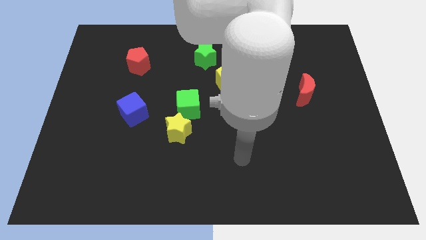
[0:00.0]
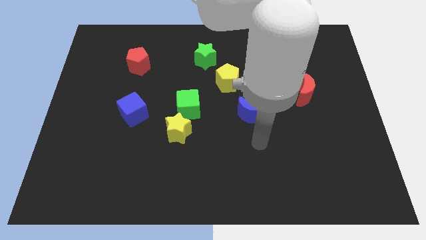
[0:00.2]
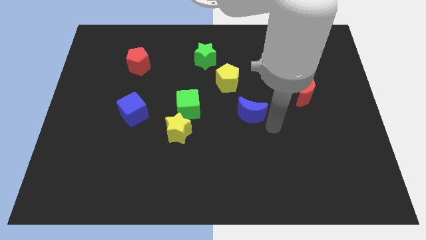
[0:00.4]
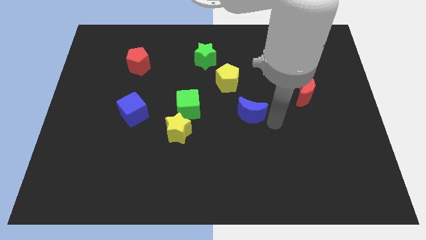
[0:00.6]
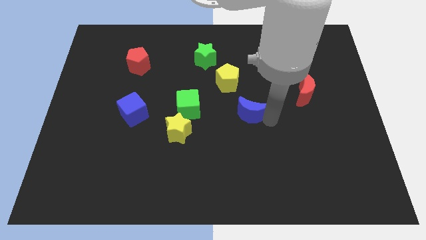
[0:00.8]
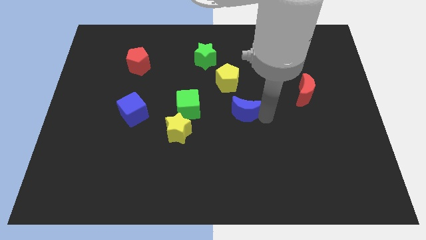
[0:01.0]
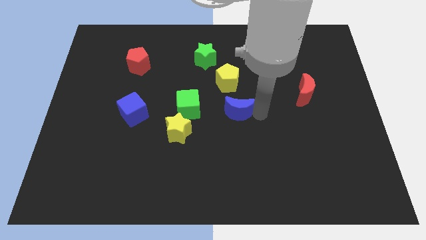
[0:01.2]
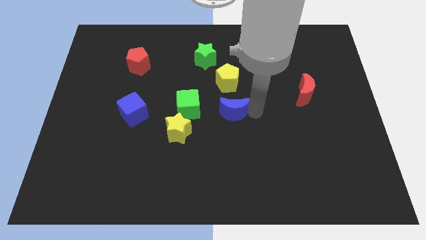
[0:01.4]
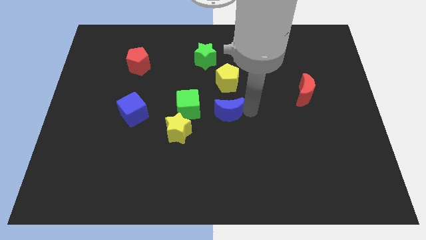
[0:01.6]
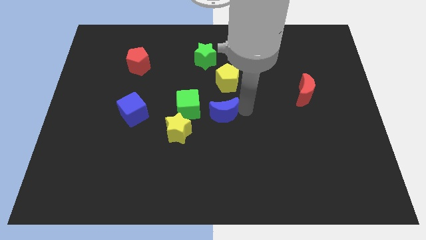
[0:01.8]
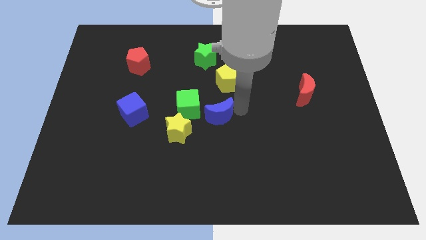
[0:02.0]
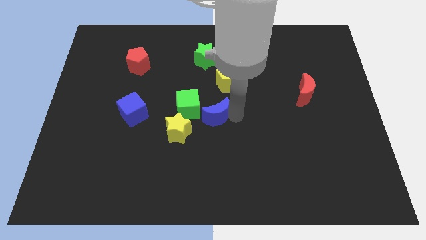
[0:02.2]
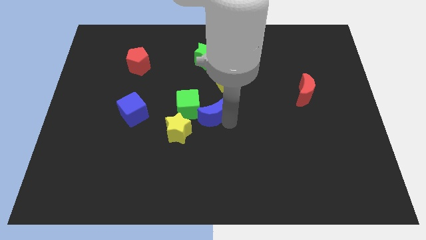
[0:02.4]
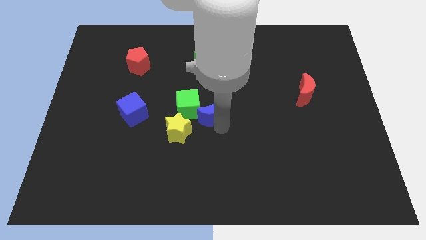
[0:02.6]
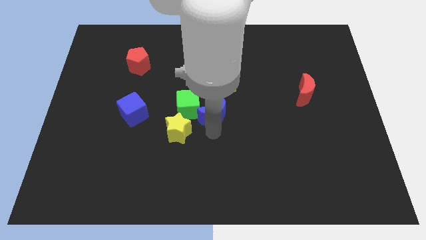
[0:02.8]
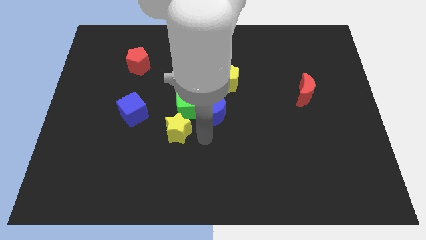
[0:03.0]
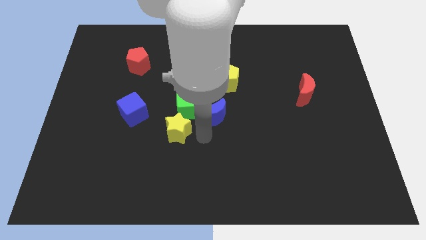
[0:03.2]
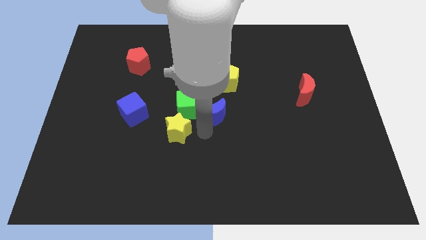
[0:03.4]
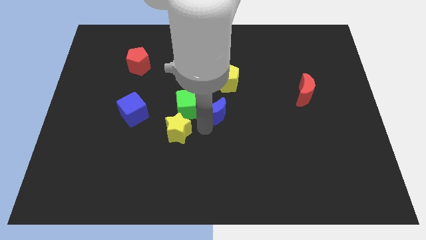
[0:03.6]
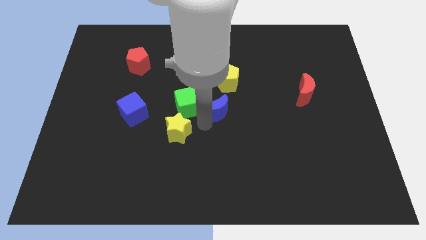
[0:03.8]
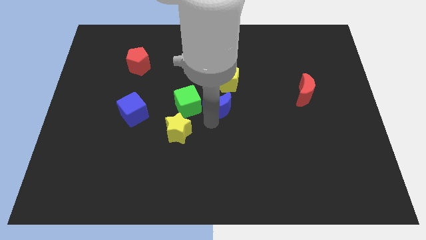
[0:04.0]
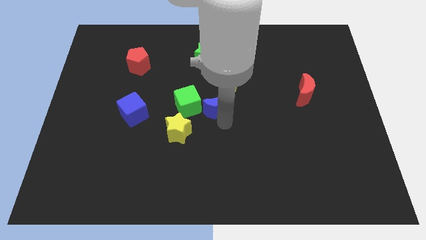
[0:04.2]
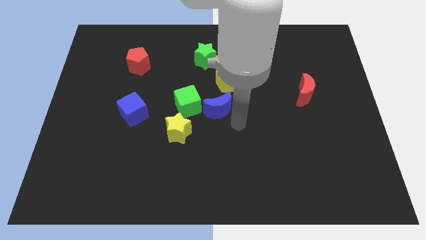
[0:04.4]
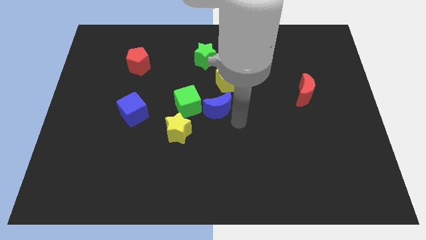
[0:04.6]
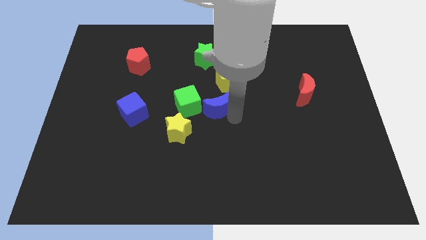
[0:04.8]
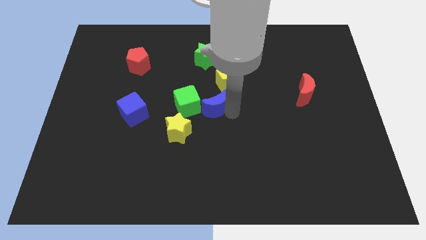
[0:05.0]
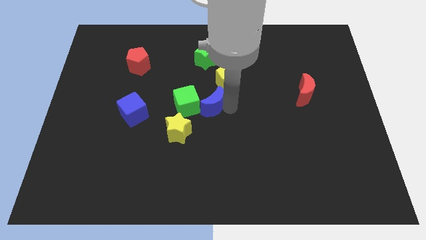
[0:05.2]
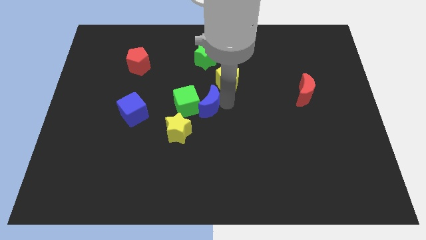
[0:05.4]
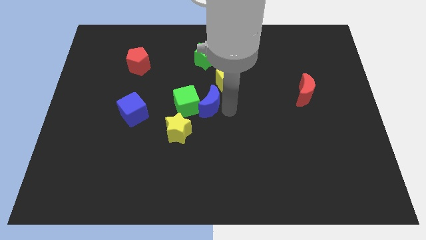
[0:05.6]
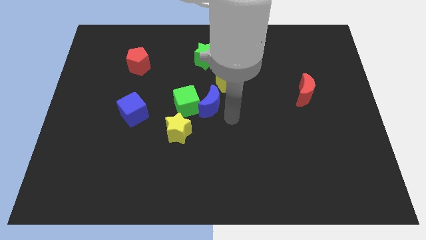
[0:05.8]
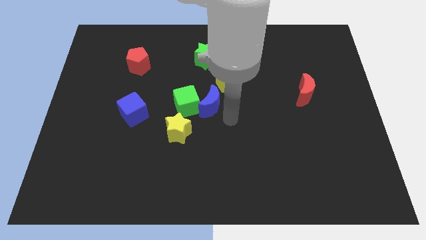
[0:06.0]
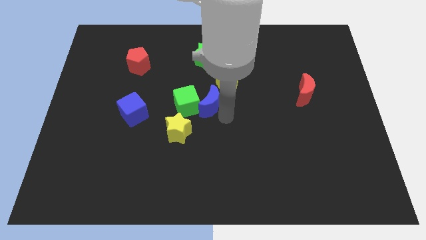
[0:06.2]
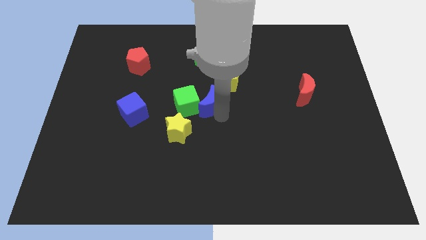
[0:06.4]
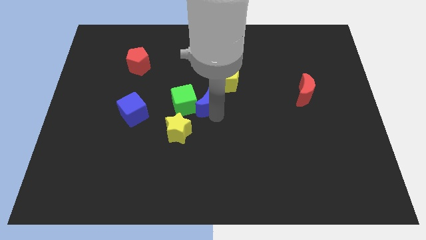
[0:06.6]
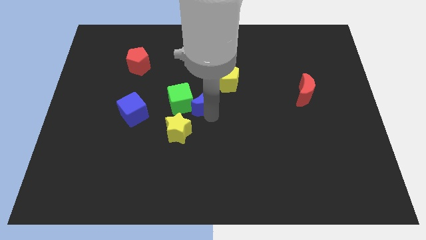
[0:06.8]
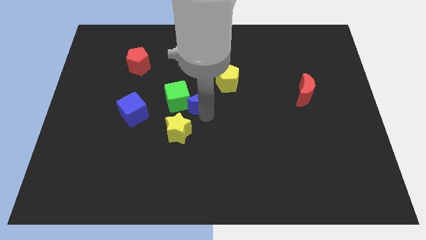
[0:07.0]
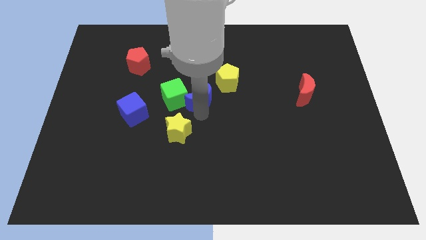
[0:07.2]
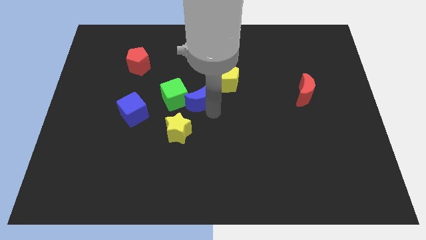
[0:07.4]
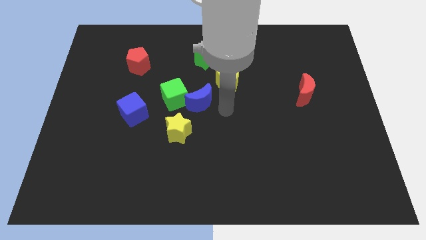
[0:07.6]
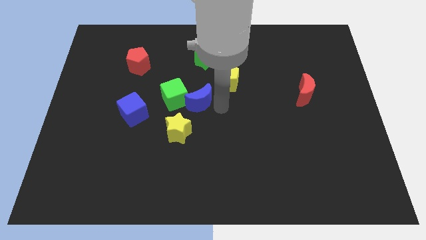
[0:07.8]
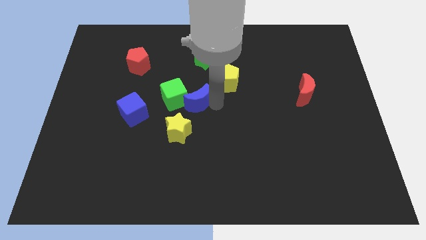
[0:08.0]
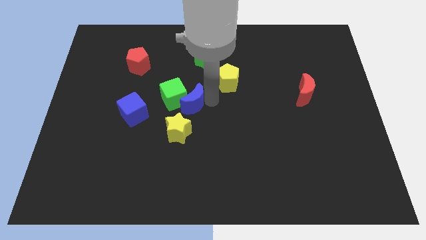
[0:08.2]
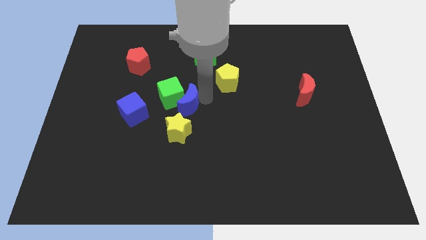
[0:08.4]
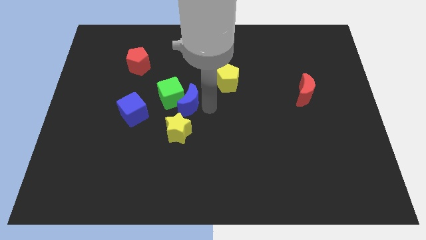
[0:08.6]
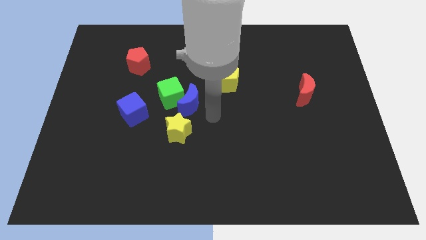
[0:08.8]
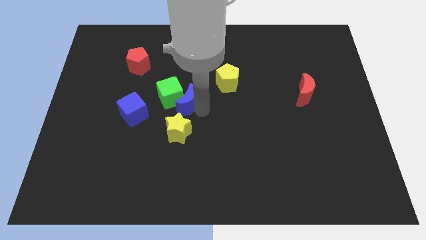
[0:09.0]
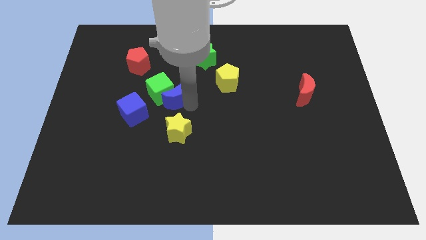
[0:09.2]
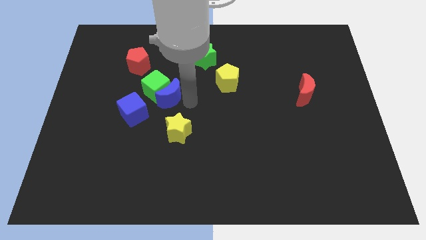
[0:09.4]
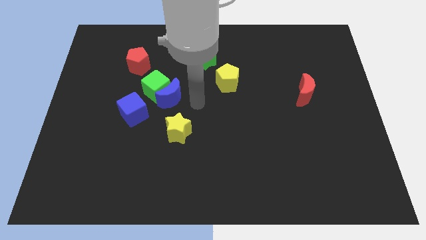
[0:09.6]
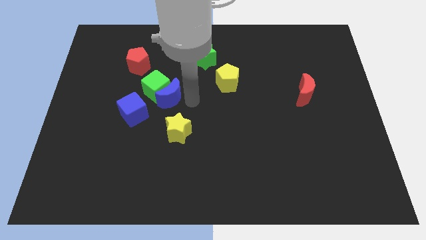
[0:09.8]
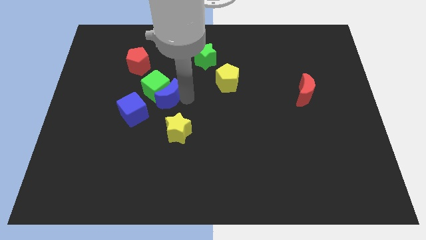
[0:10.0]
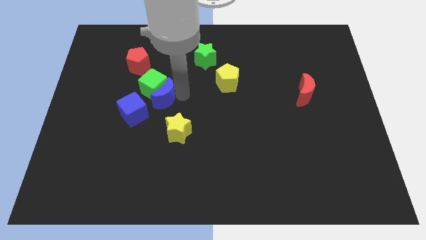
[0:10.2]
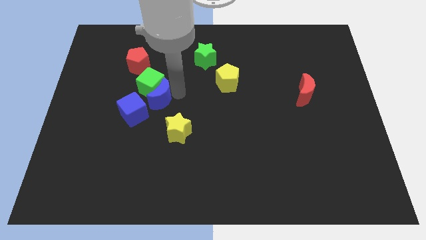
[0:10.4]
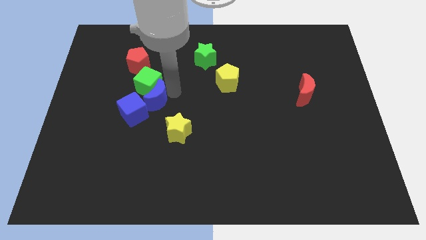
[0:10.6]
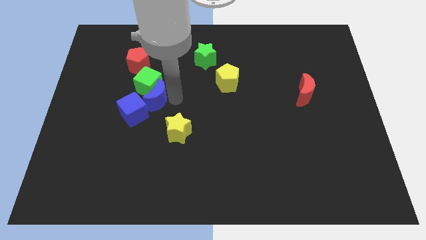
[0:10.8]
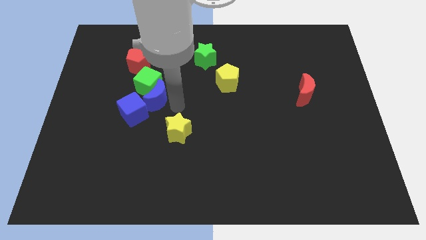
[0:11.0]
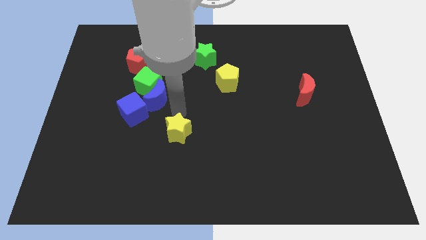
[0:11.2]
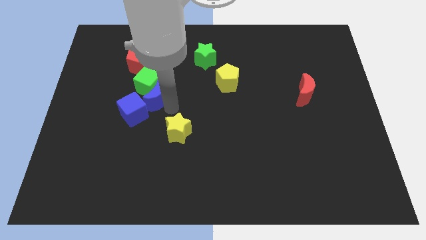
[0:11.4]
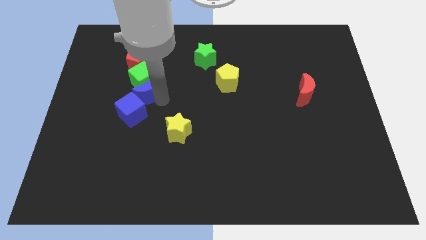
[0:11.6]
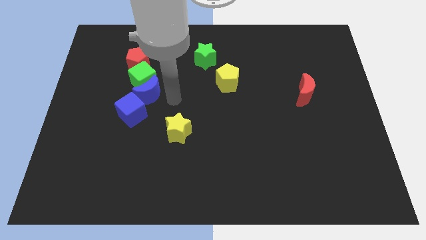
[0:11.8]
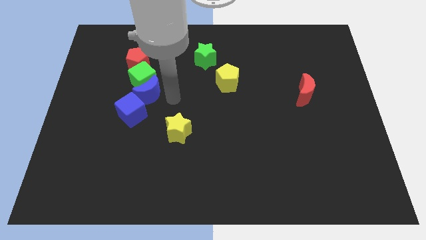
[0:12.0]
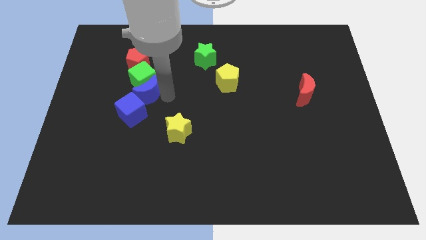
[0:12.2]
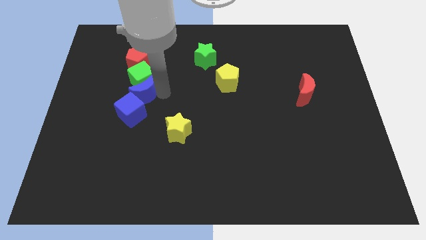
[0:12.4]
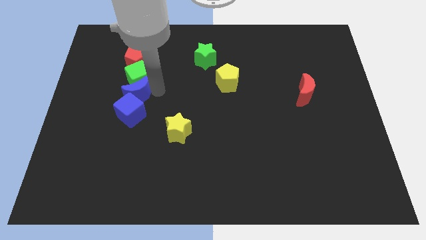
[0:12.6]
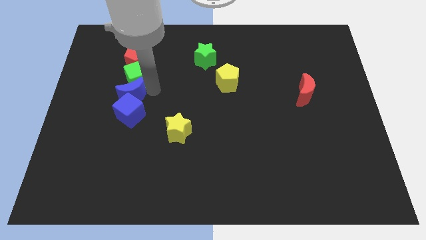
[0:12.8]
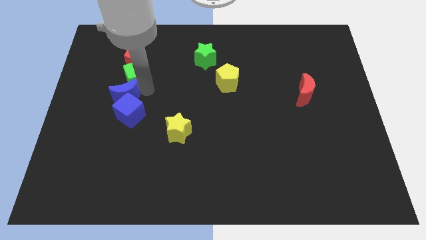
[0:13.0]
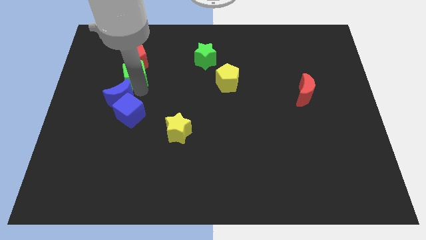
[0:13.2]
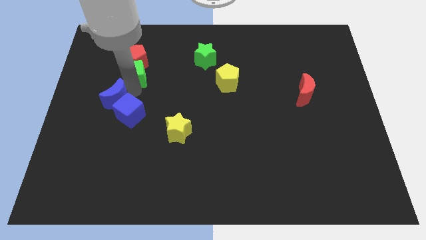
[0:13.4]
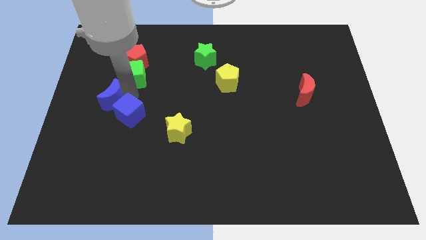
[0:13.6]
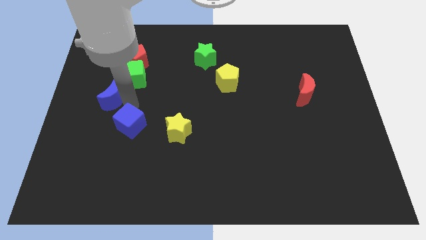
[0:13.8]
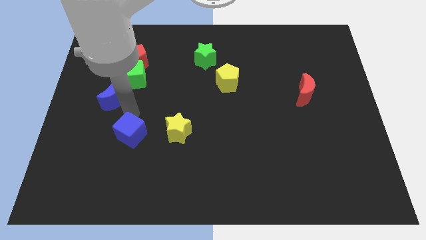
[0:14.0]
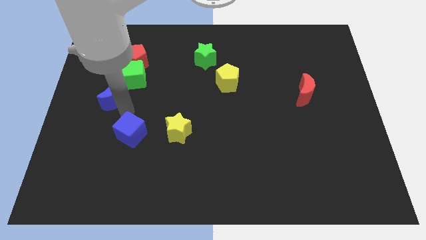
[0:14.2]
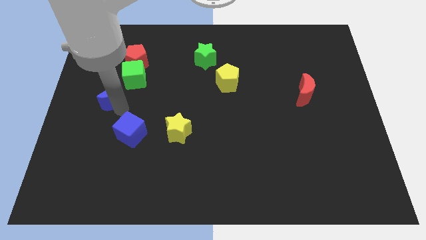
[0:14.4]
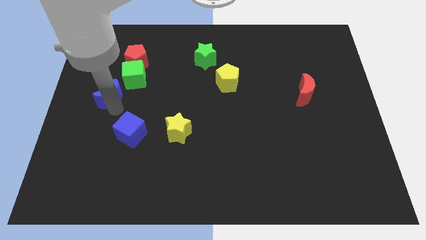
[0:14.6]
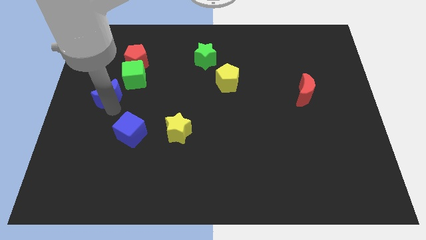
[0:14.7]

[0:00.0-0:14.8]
push the blue moon to the left side
